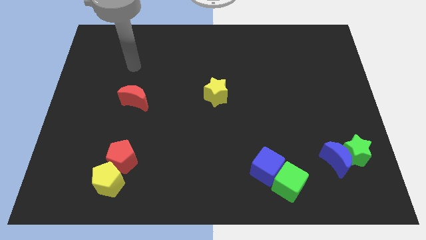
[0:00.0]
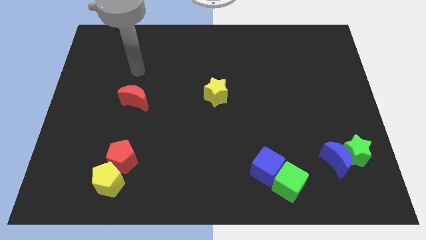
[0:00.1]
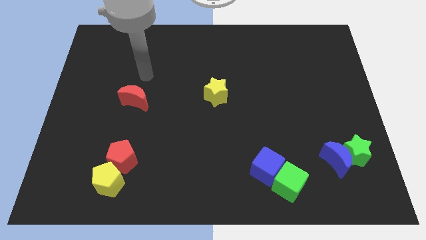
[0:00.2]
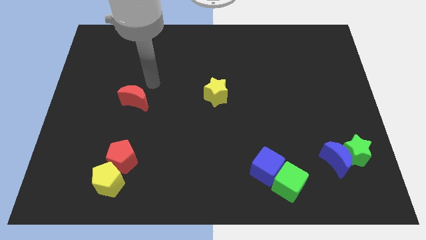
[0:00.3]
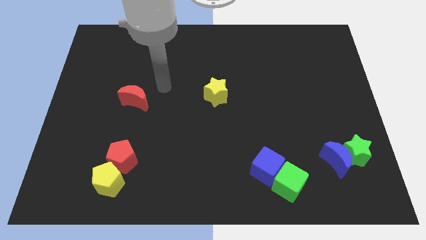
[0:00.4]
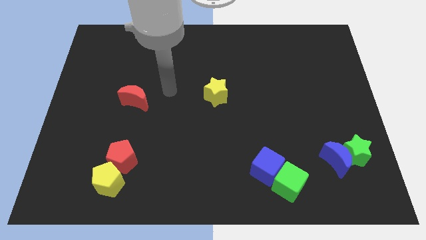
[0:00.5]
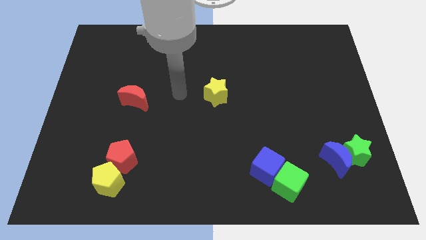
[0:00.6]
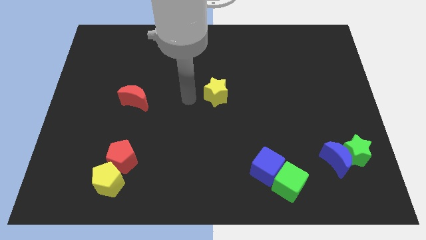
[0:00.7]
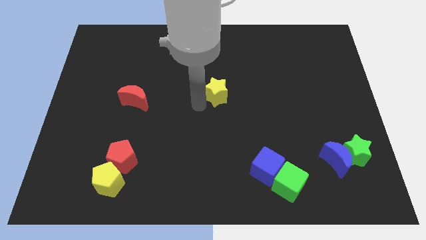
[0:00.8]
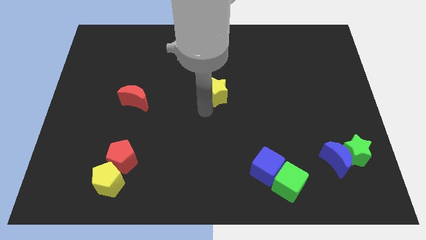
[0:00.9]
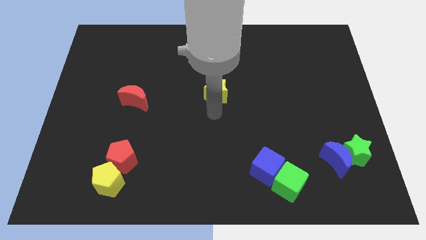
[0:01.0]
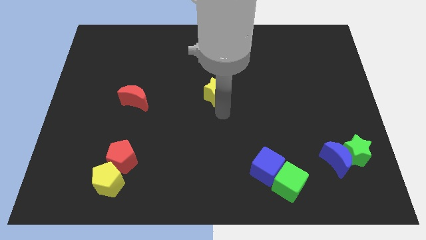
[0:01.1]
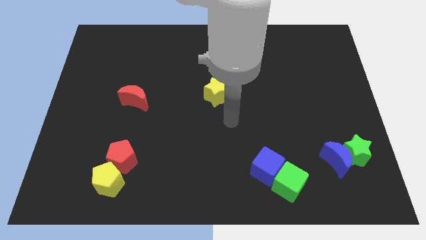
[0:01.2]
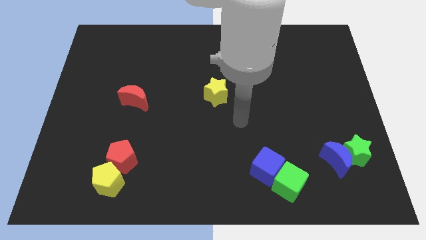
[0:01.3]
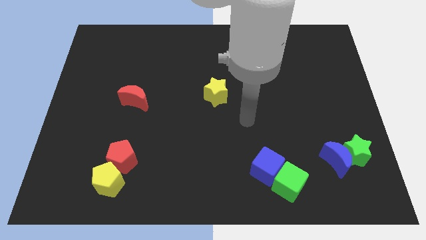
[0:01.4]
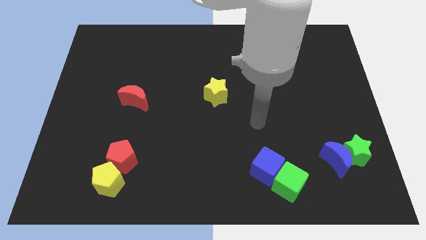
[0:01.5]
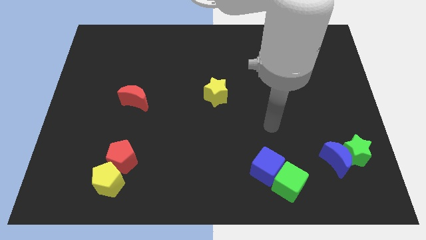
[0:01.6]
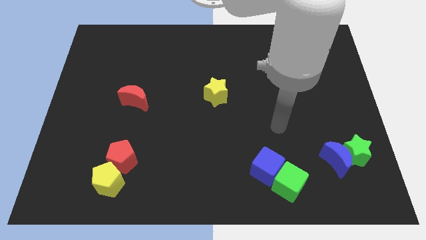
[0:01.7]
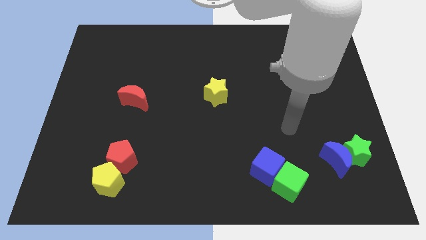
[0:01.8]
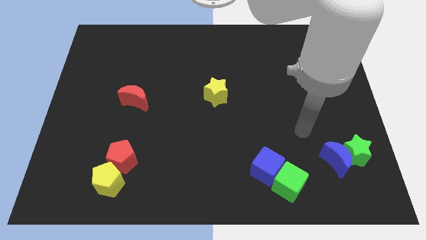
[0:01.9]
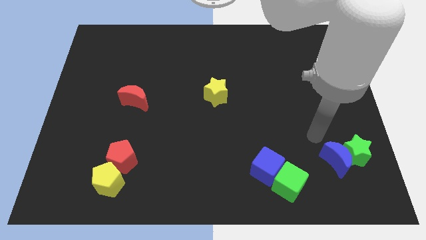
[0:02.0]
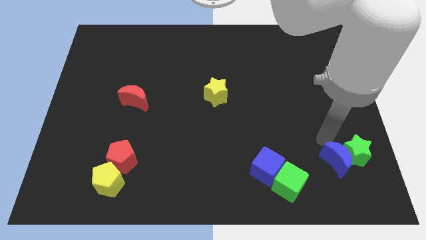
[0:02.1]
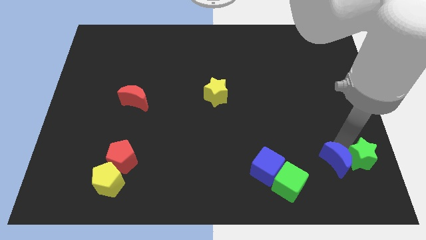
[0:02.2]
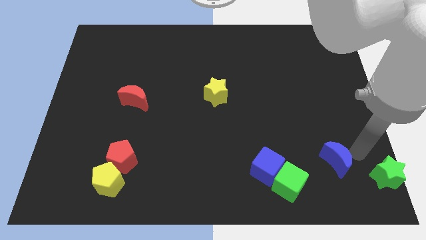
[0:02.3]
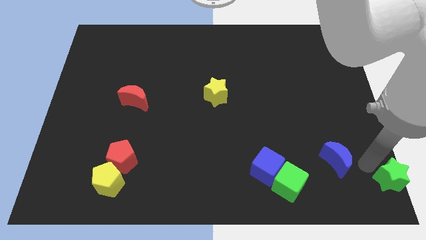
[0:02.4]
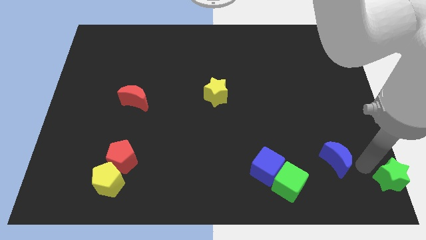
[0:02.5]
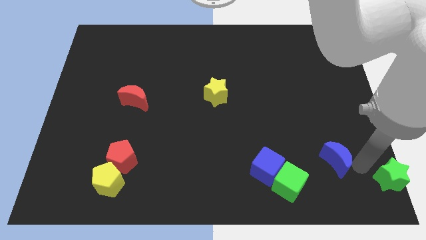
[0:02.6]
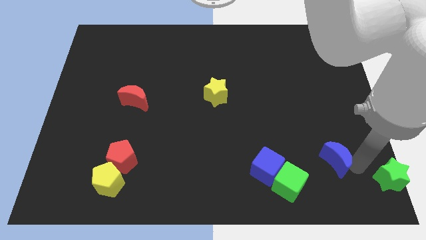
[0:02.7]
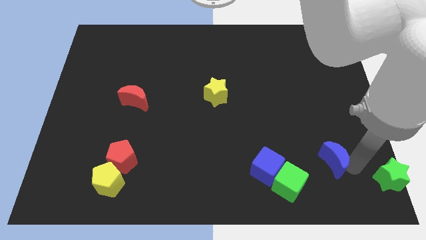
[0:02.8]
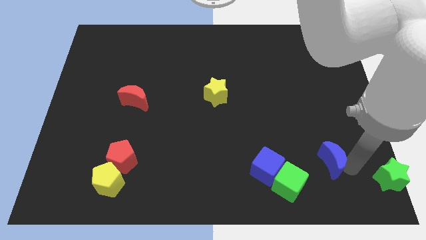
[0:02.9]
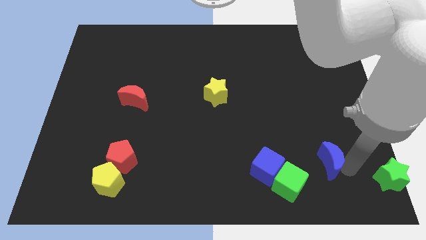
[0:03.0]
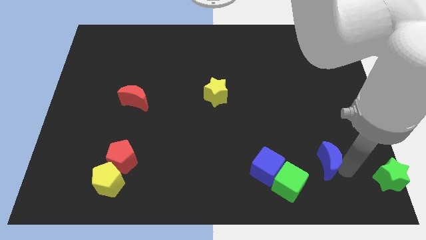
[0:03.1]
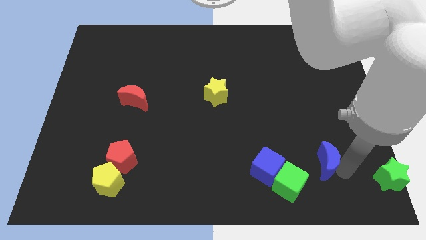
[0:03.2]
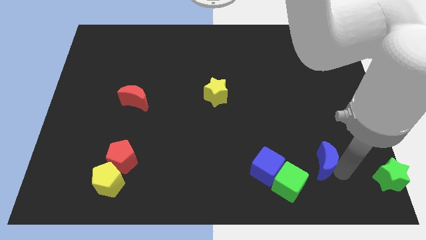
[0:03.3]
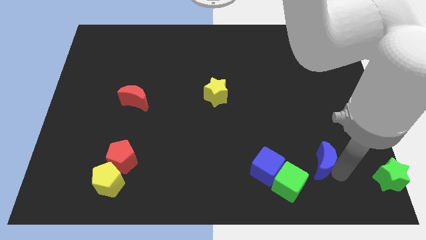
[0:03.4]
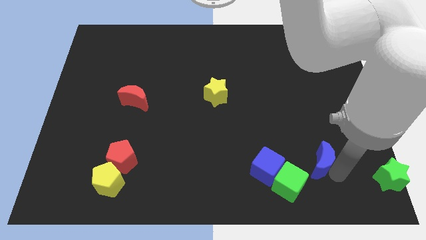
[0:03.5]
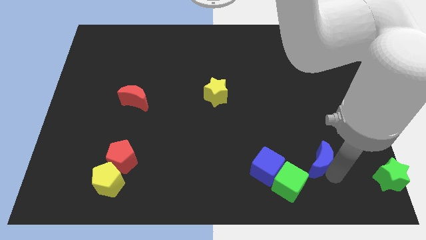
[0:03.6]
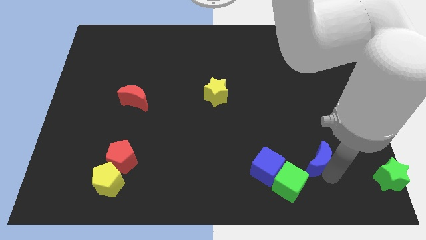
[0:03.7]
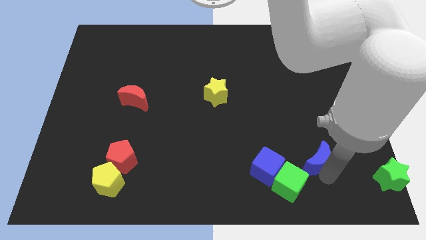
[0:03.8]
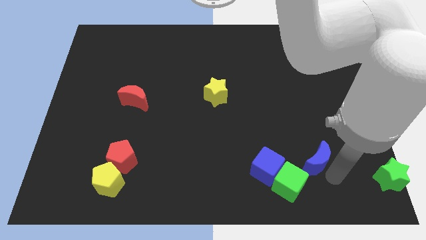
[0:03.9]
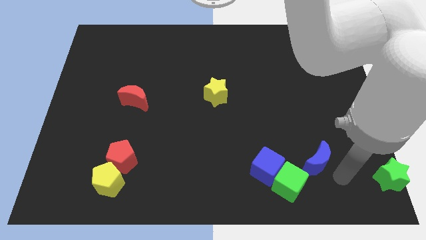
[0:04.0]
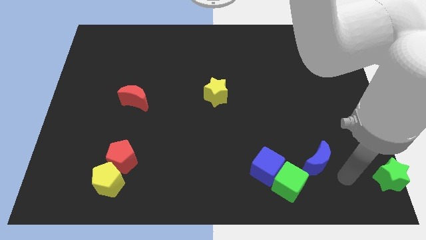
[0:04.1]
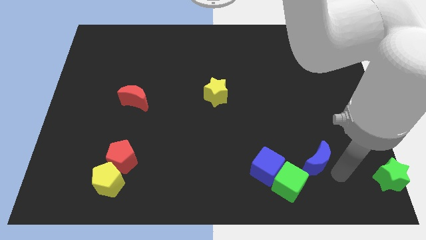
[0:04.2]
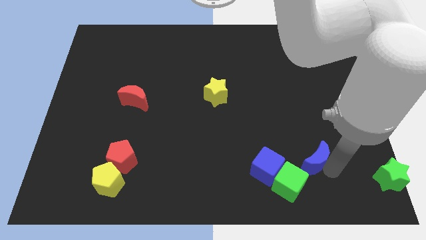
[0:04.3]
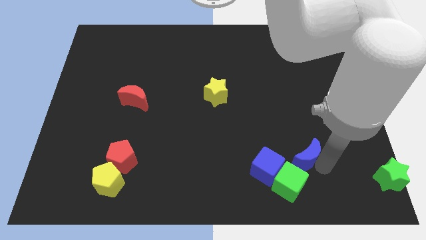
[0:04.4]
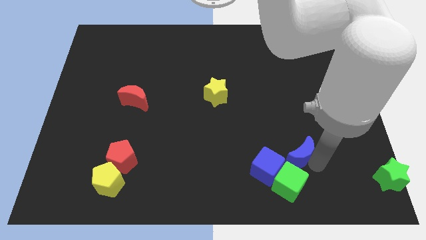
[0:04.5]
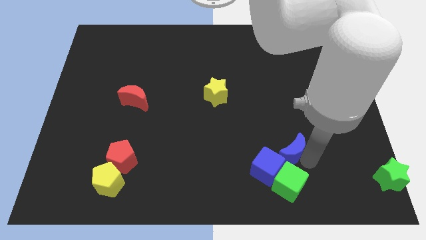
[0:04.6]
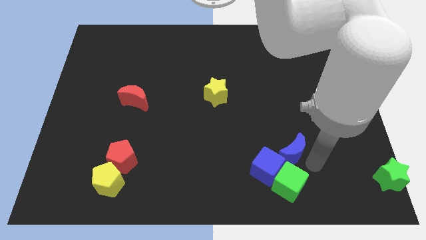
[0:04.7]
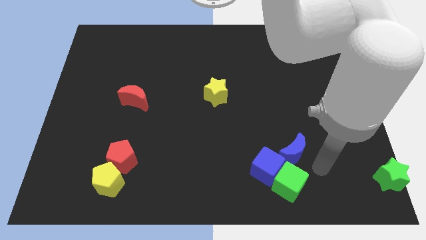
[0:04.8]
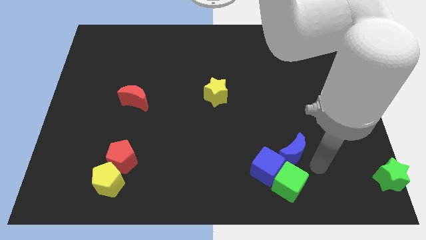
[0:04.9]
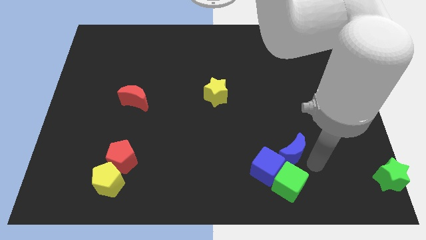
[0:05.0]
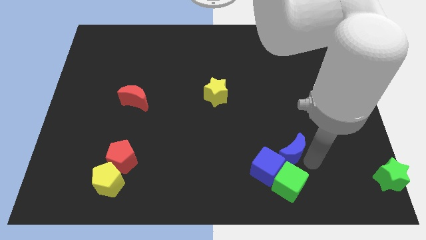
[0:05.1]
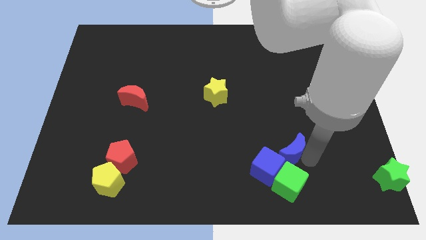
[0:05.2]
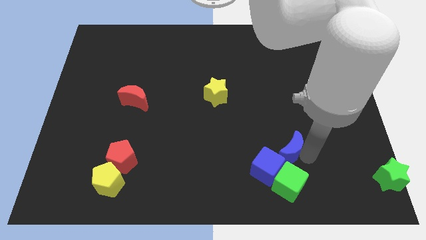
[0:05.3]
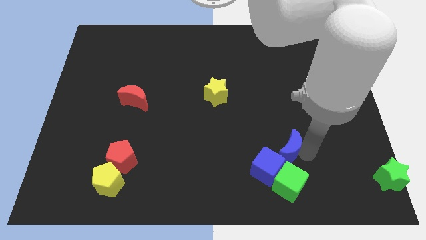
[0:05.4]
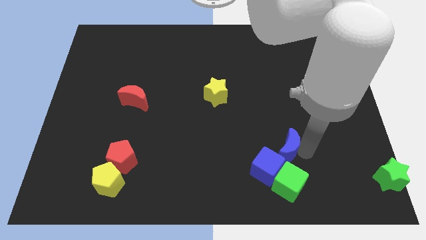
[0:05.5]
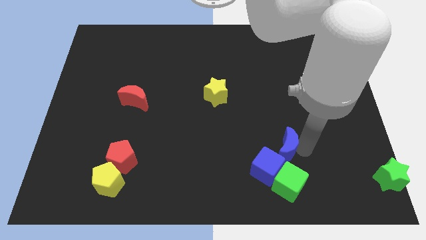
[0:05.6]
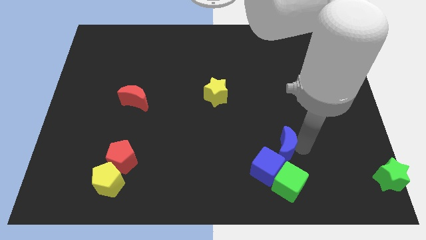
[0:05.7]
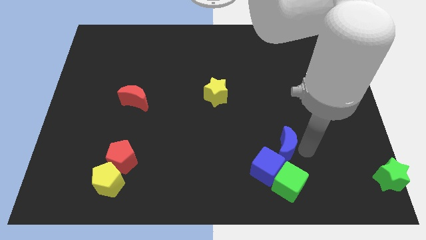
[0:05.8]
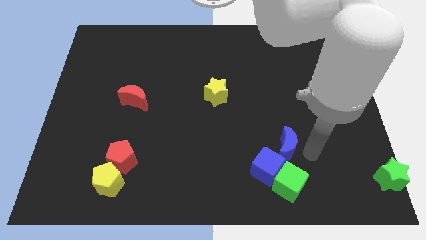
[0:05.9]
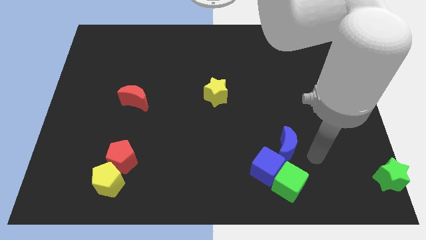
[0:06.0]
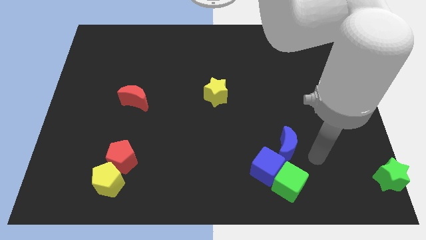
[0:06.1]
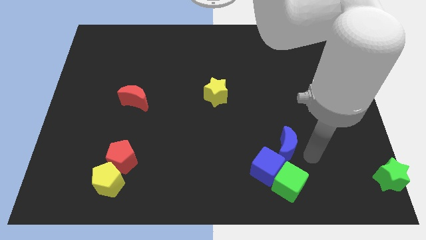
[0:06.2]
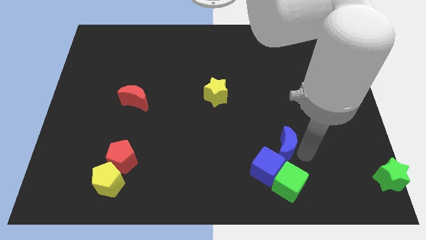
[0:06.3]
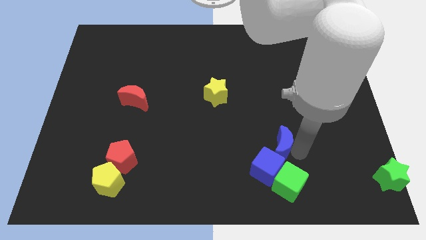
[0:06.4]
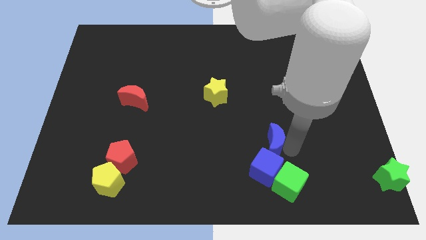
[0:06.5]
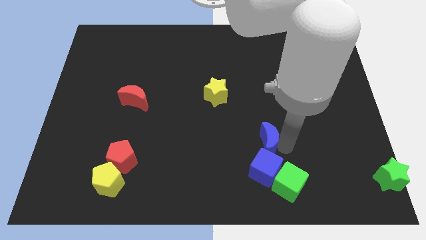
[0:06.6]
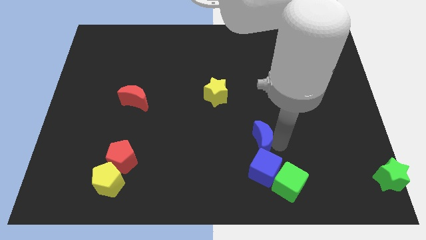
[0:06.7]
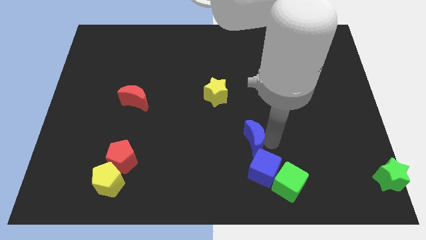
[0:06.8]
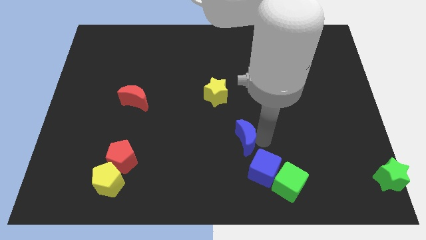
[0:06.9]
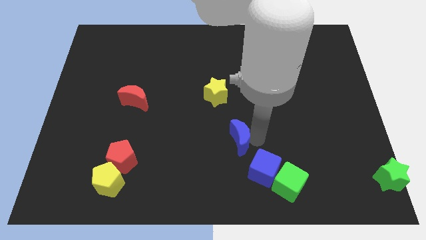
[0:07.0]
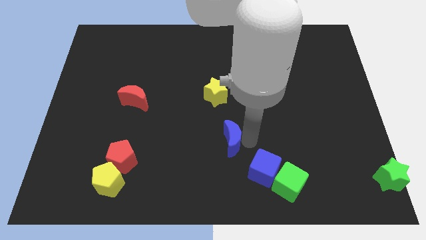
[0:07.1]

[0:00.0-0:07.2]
push the blue moon to the bottom of the yellow star
